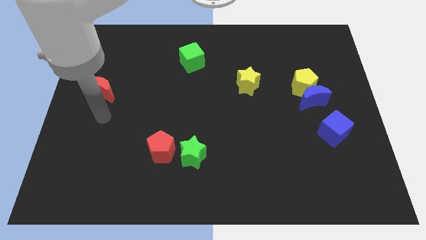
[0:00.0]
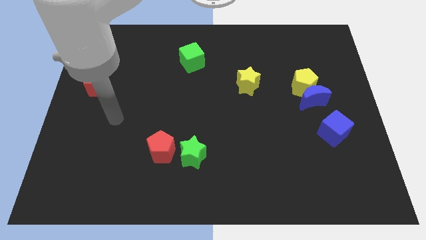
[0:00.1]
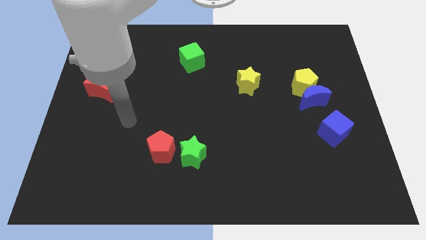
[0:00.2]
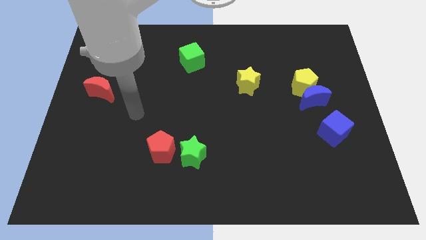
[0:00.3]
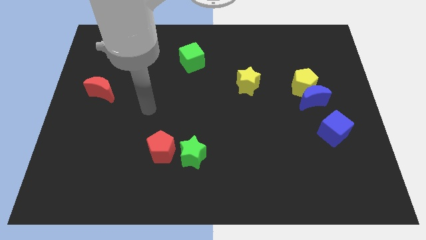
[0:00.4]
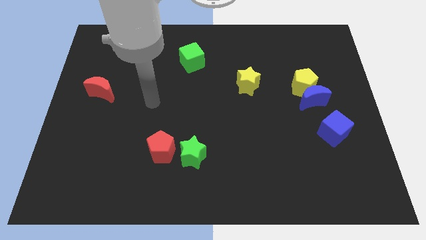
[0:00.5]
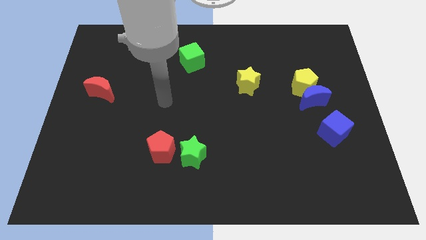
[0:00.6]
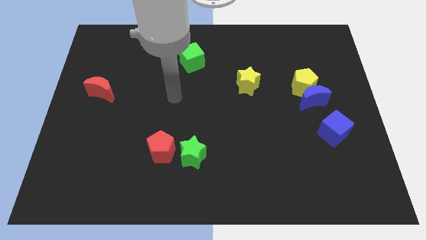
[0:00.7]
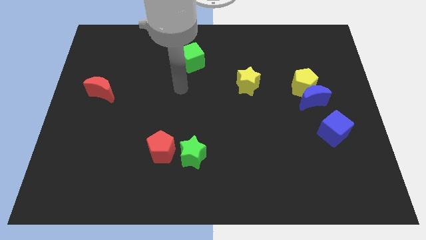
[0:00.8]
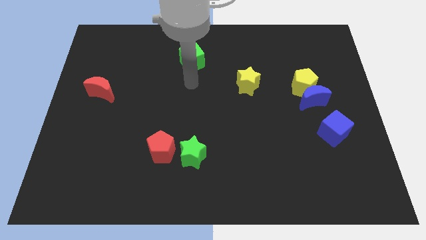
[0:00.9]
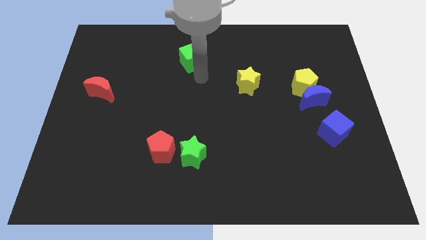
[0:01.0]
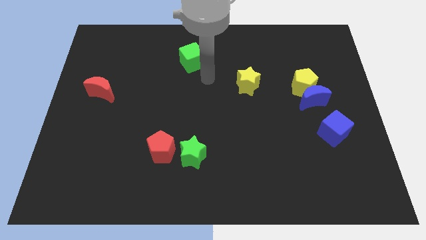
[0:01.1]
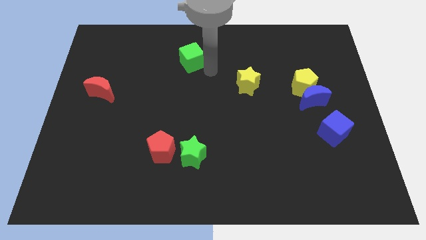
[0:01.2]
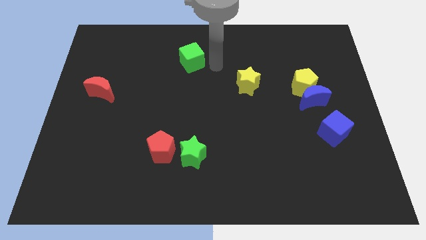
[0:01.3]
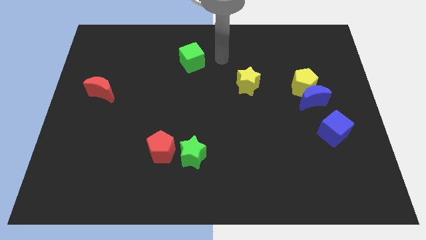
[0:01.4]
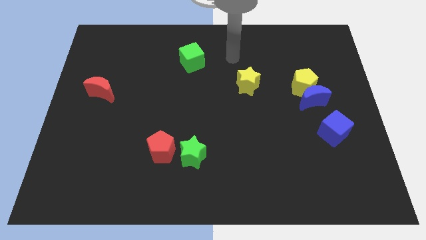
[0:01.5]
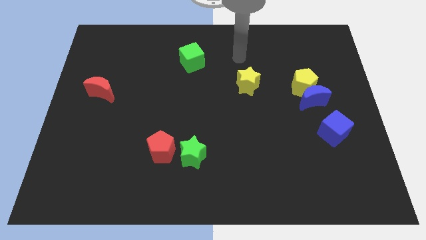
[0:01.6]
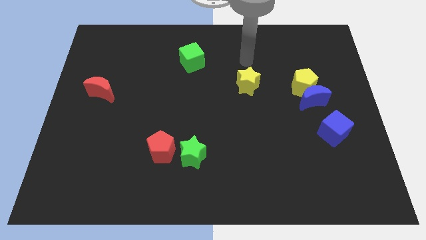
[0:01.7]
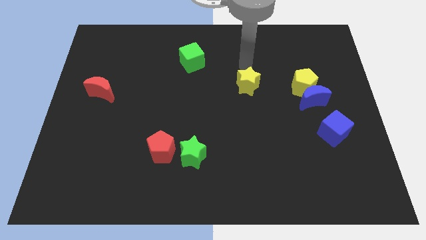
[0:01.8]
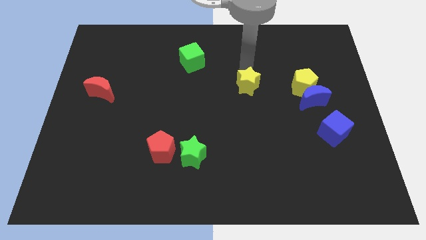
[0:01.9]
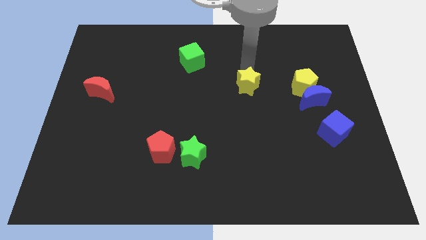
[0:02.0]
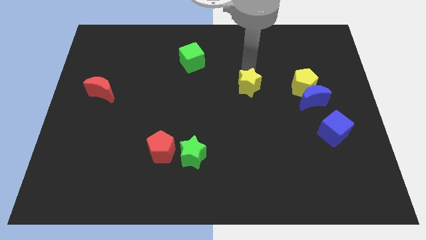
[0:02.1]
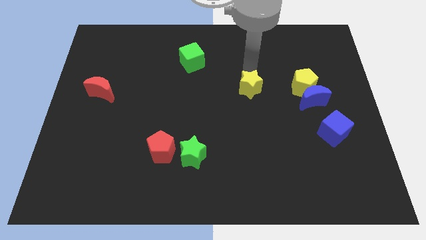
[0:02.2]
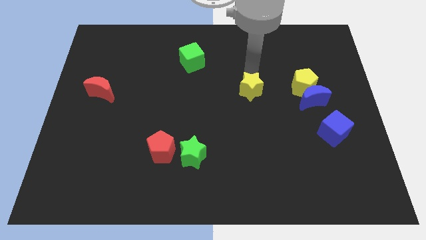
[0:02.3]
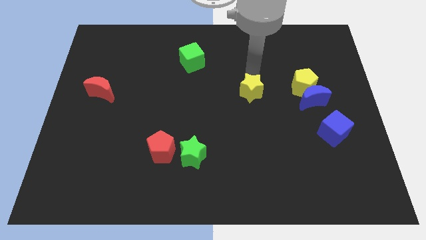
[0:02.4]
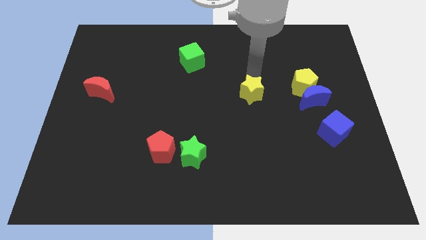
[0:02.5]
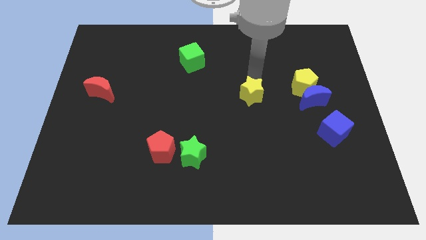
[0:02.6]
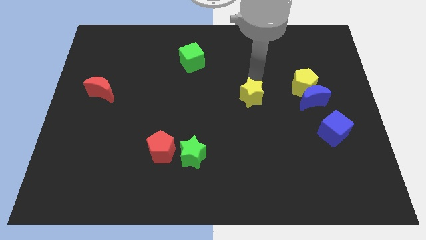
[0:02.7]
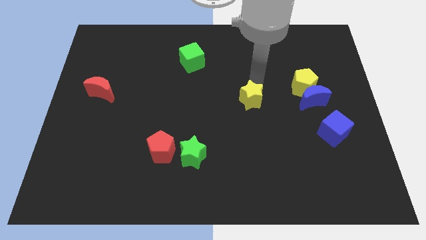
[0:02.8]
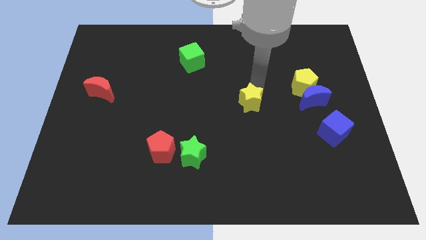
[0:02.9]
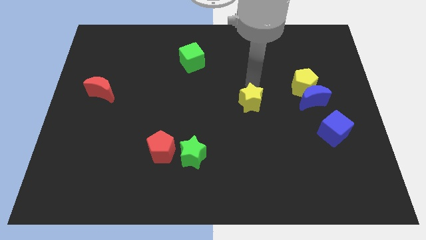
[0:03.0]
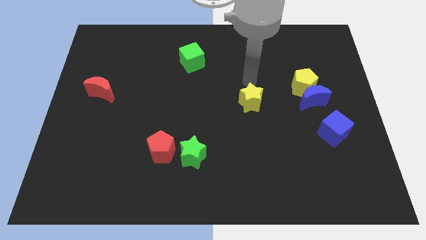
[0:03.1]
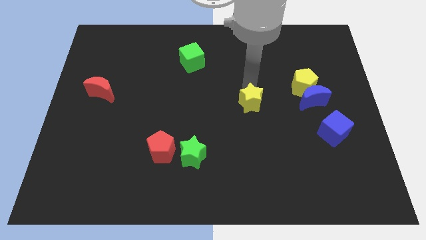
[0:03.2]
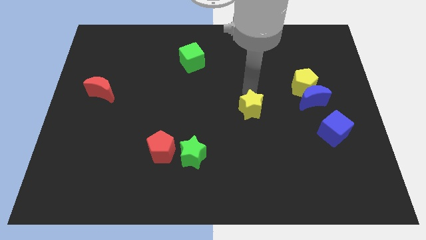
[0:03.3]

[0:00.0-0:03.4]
move the yellow star somewhat downwards

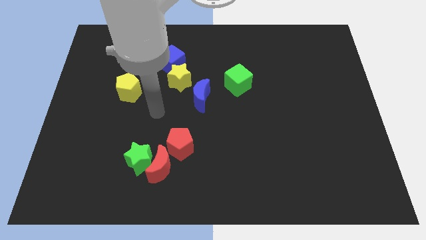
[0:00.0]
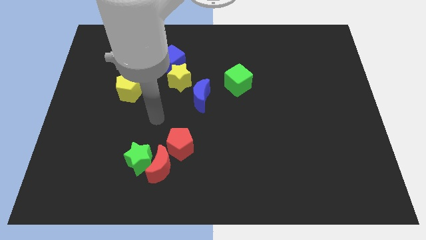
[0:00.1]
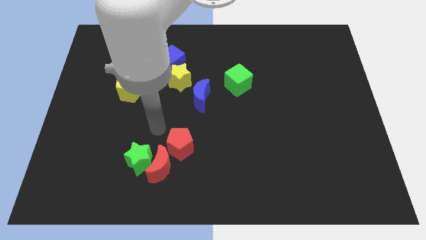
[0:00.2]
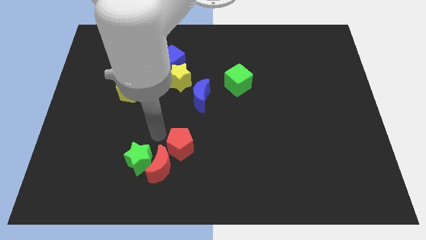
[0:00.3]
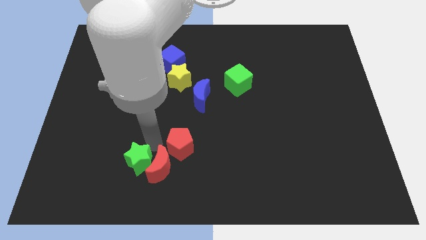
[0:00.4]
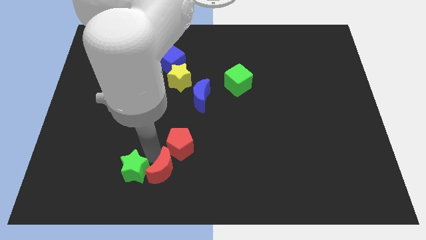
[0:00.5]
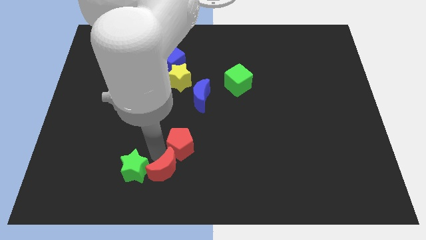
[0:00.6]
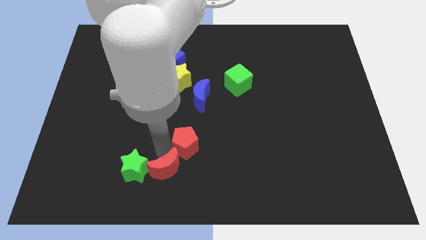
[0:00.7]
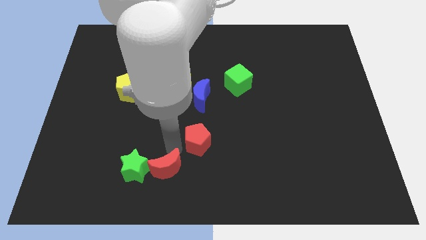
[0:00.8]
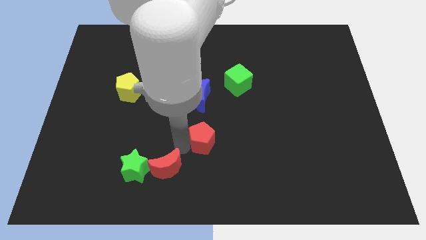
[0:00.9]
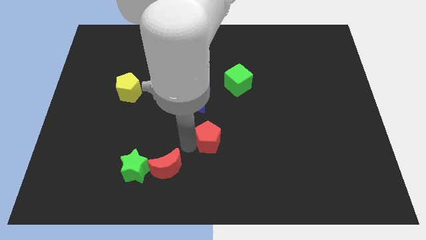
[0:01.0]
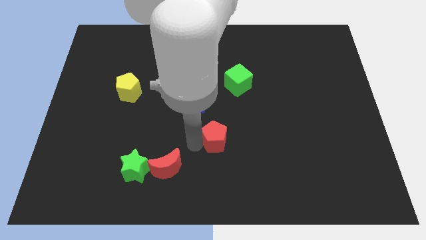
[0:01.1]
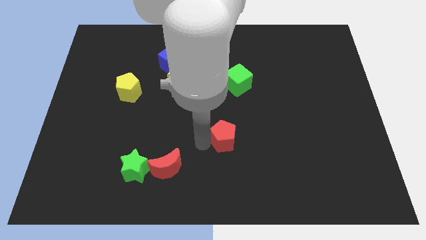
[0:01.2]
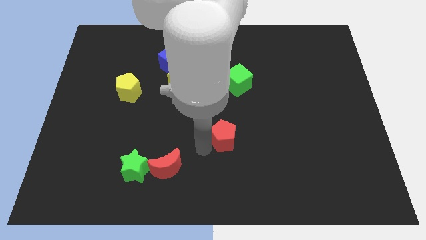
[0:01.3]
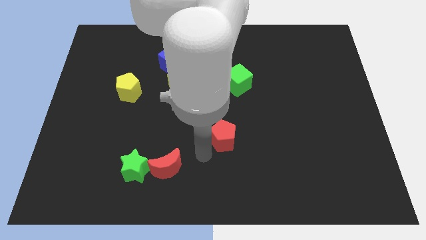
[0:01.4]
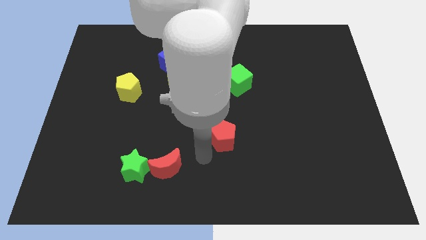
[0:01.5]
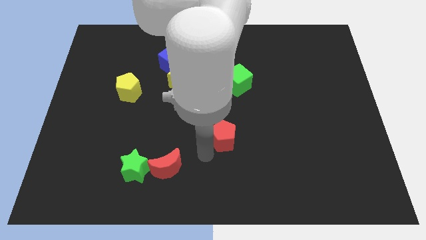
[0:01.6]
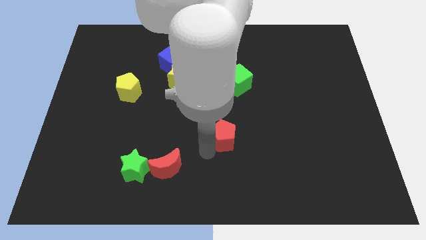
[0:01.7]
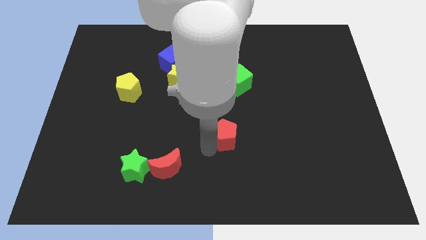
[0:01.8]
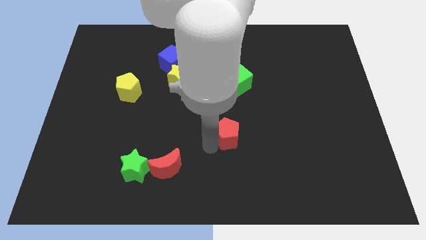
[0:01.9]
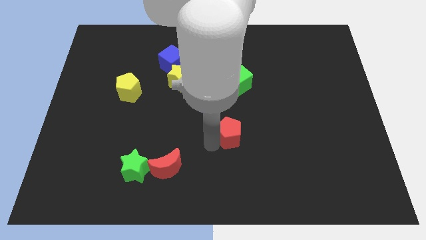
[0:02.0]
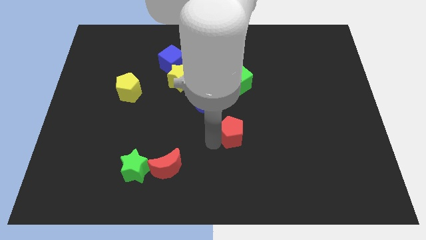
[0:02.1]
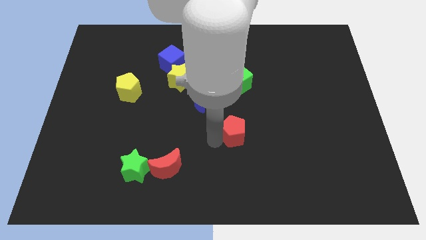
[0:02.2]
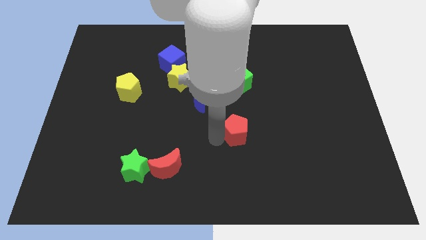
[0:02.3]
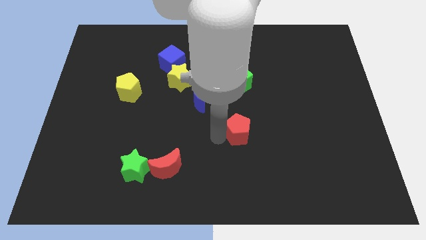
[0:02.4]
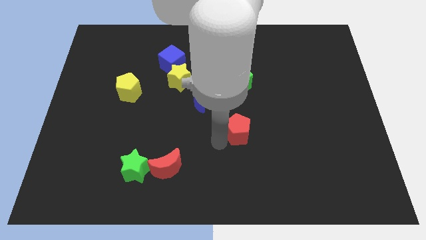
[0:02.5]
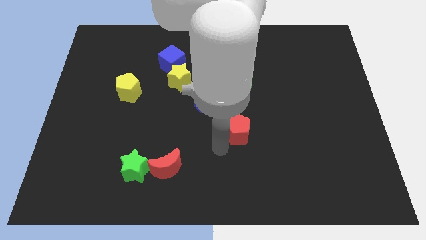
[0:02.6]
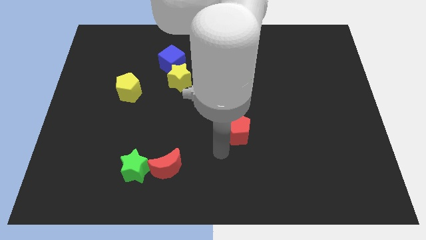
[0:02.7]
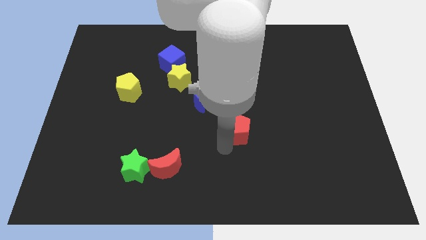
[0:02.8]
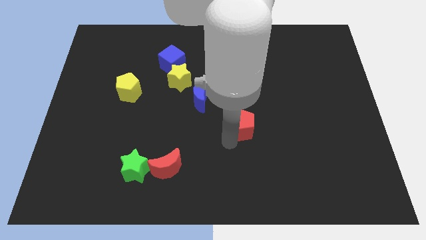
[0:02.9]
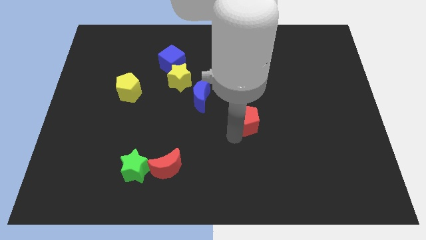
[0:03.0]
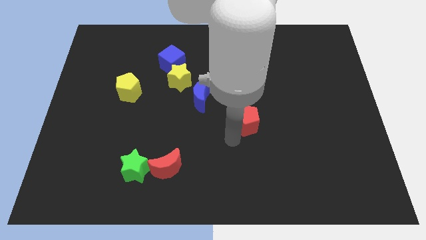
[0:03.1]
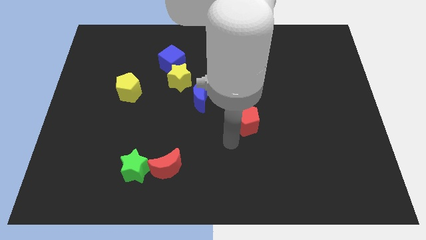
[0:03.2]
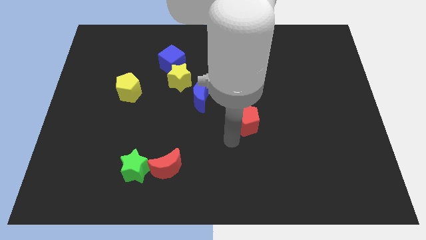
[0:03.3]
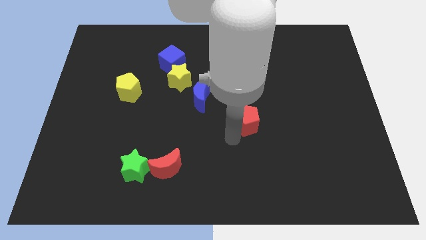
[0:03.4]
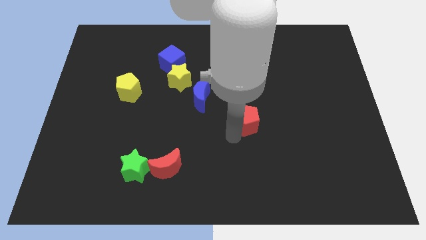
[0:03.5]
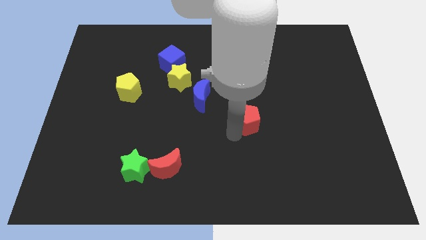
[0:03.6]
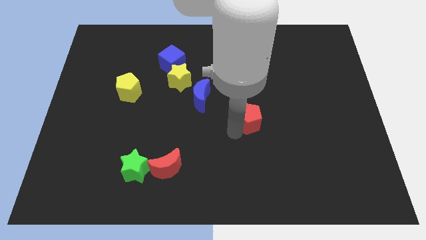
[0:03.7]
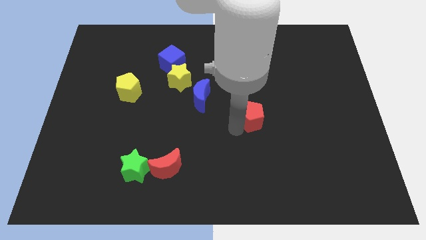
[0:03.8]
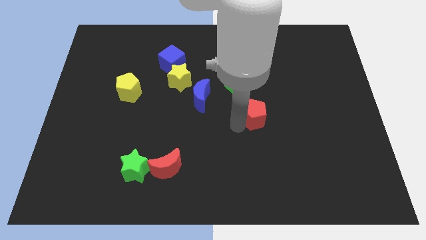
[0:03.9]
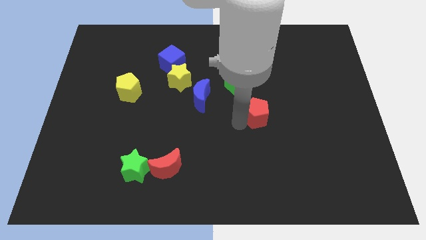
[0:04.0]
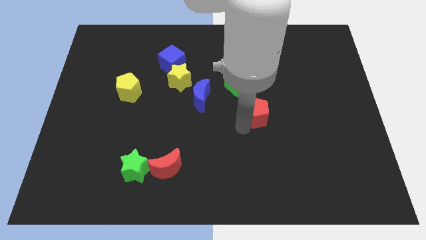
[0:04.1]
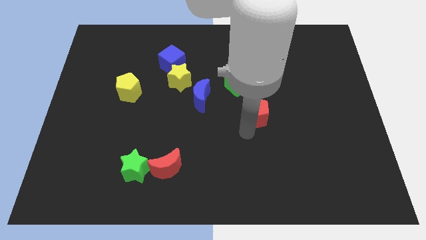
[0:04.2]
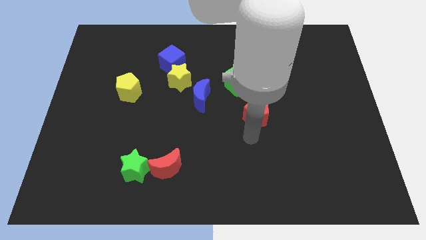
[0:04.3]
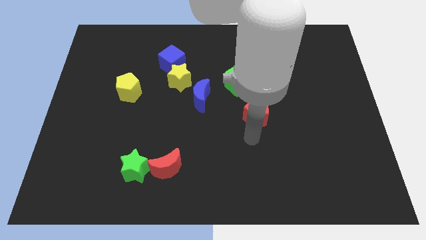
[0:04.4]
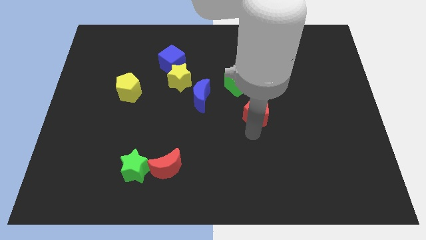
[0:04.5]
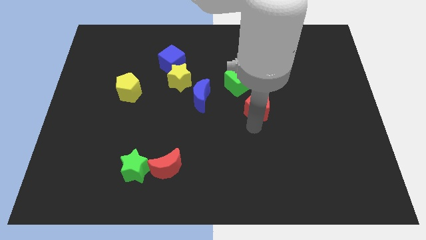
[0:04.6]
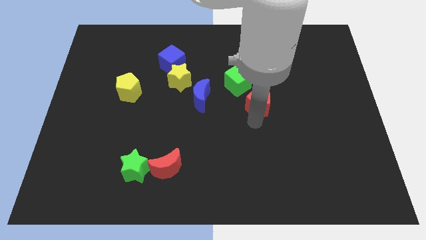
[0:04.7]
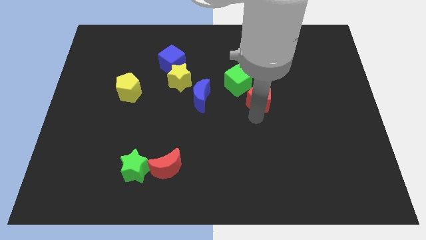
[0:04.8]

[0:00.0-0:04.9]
move the red pentagon up and then to the right
